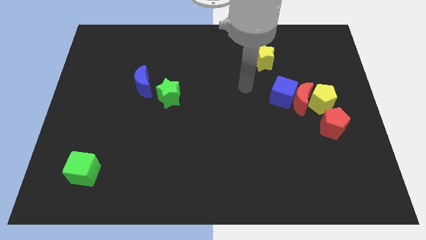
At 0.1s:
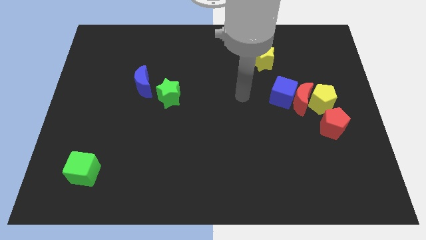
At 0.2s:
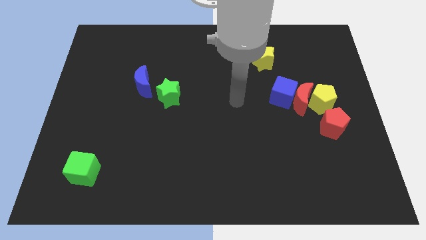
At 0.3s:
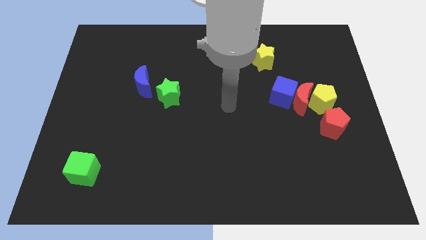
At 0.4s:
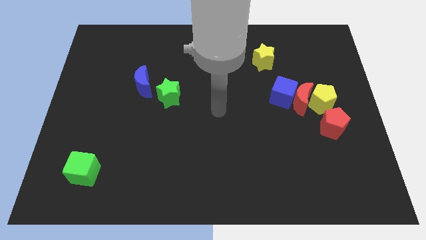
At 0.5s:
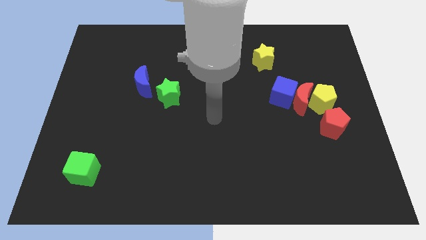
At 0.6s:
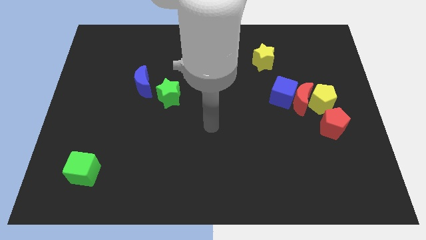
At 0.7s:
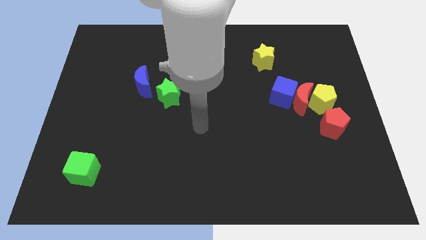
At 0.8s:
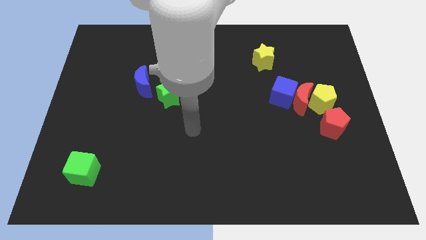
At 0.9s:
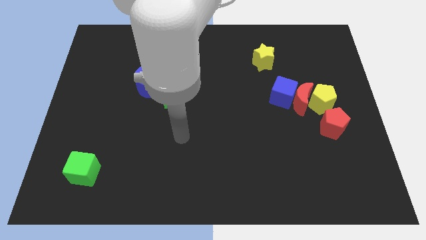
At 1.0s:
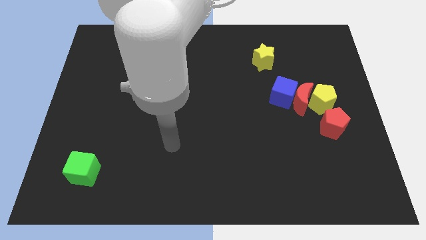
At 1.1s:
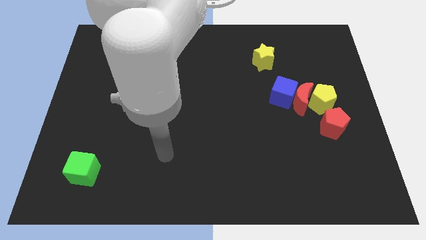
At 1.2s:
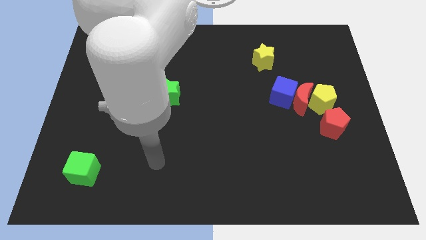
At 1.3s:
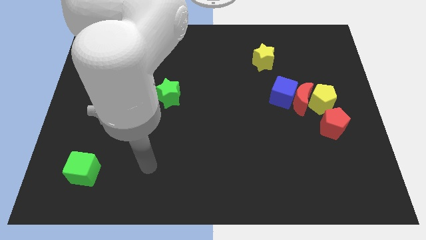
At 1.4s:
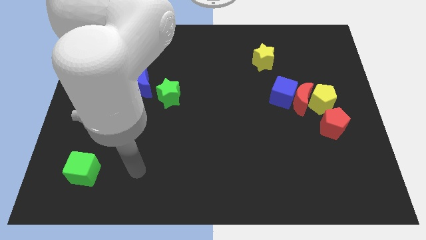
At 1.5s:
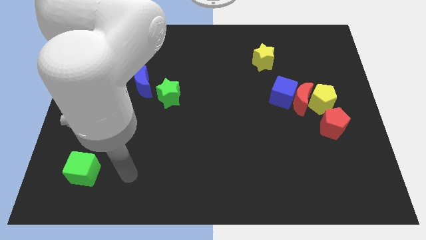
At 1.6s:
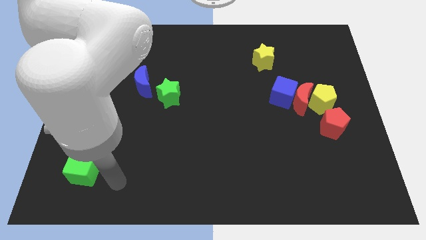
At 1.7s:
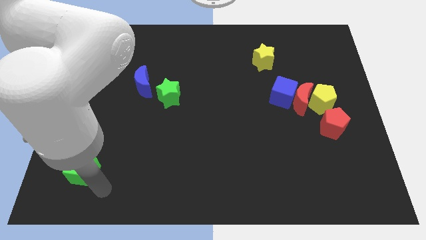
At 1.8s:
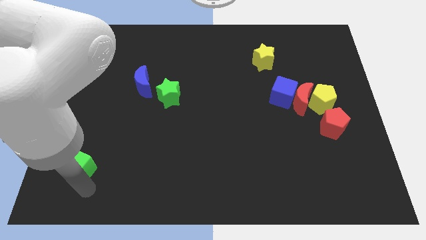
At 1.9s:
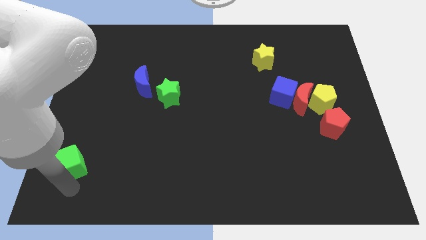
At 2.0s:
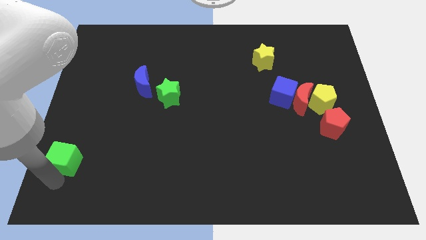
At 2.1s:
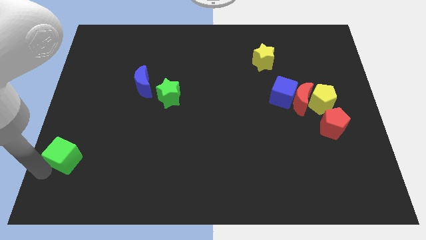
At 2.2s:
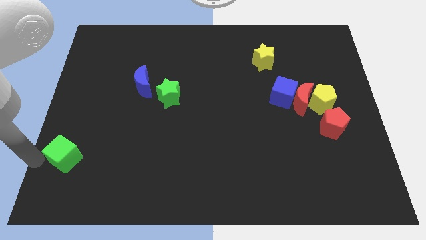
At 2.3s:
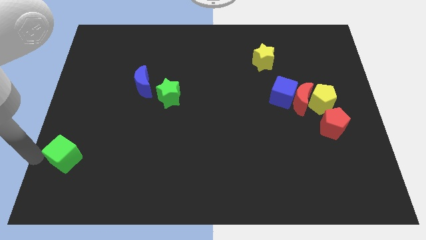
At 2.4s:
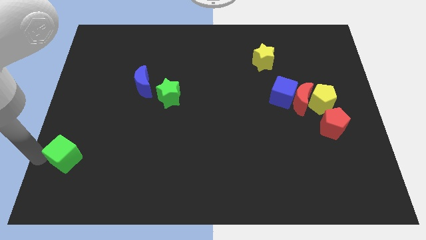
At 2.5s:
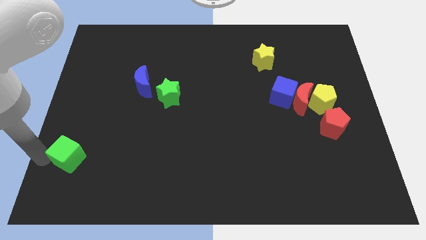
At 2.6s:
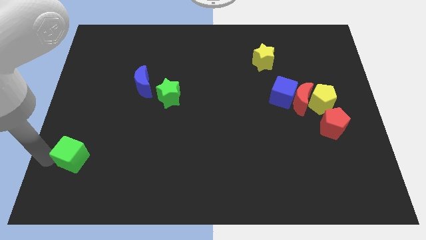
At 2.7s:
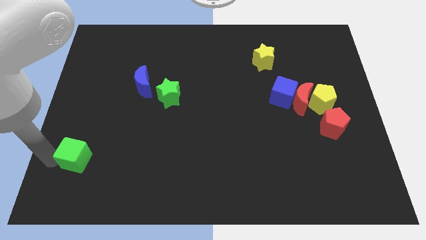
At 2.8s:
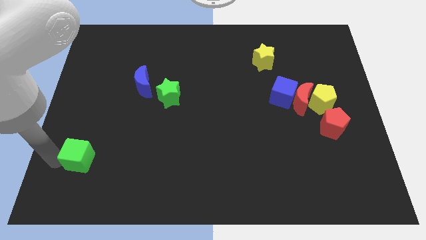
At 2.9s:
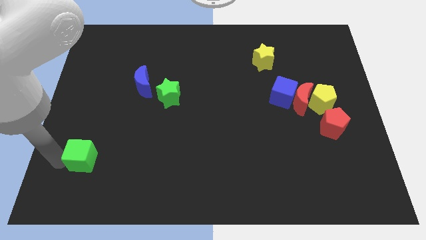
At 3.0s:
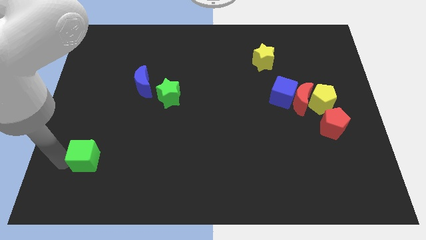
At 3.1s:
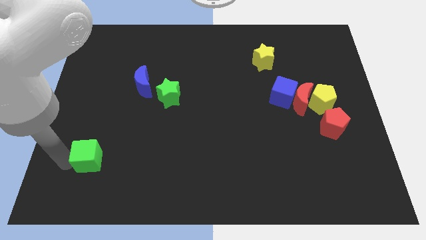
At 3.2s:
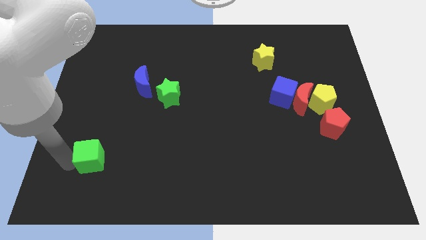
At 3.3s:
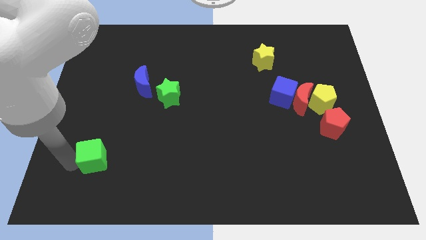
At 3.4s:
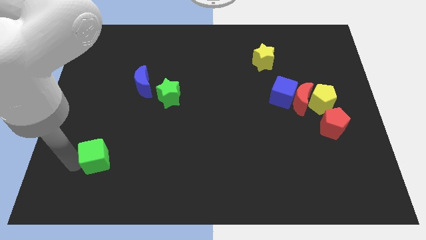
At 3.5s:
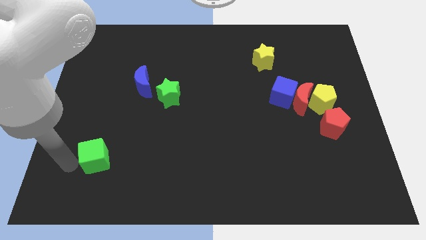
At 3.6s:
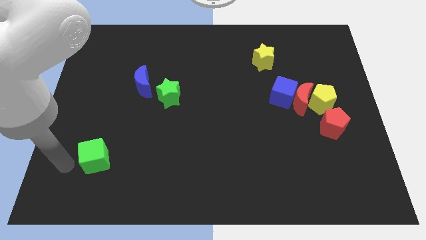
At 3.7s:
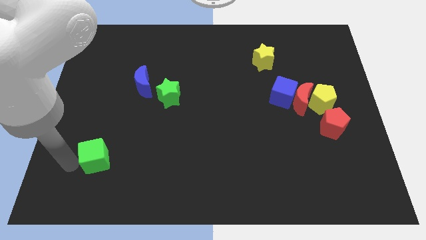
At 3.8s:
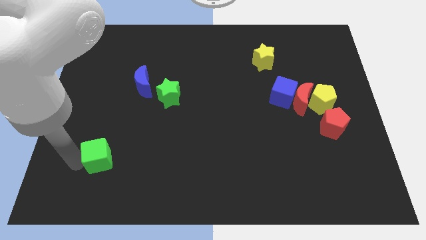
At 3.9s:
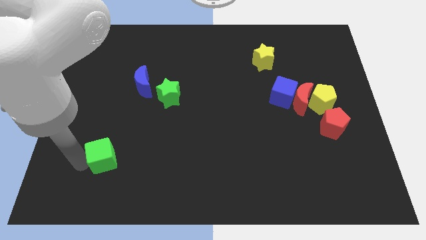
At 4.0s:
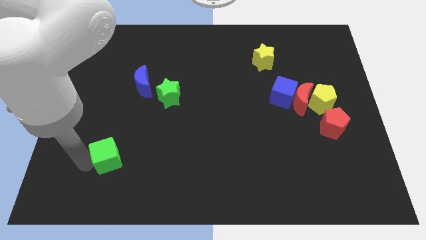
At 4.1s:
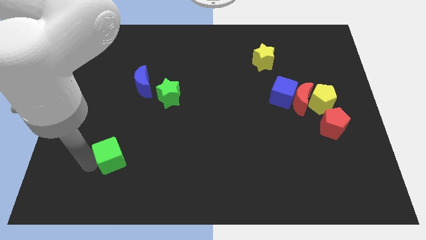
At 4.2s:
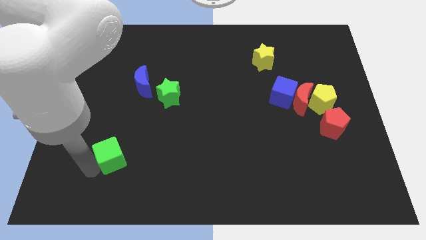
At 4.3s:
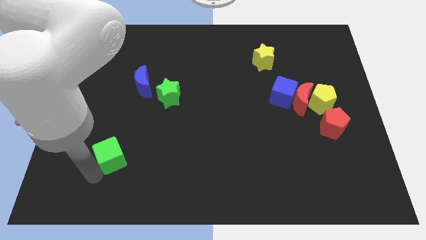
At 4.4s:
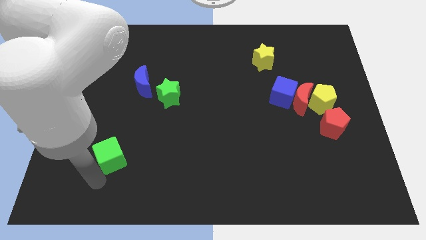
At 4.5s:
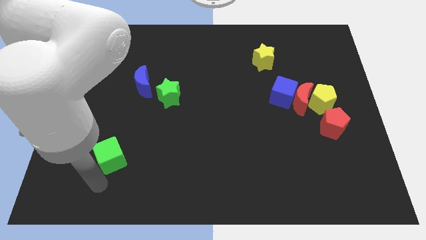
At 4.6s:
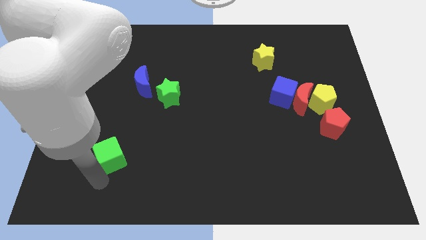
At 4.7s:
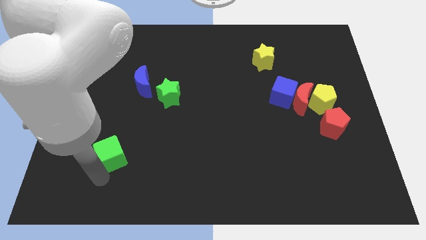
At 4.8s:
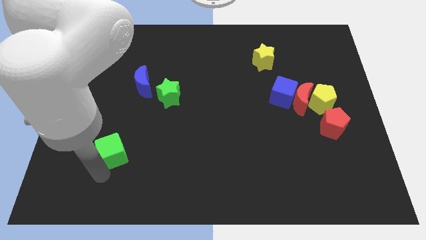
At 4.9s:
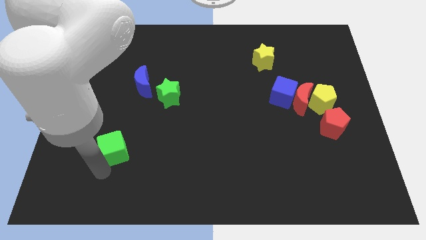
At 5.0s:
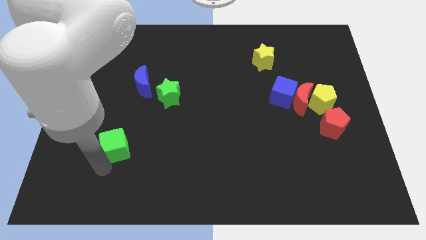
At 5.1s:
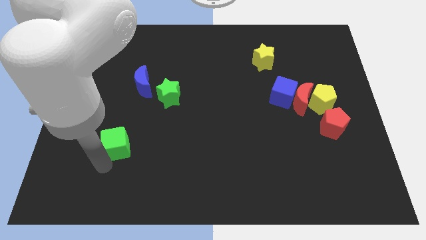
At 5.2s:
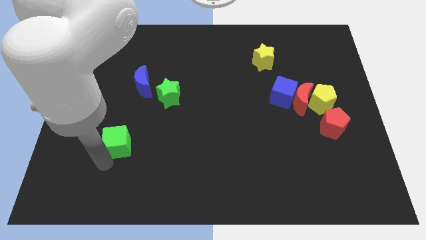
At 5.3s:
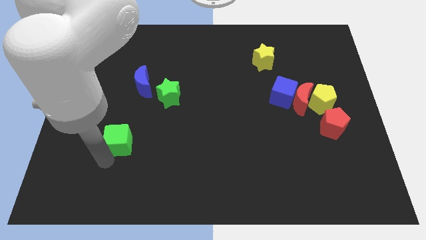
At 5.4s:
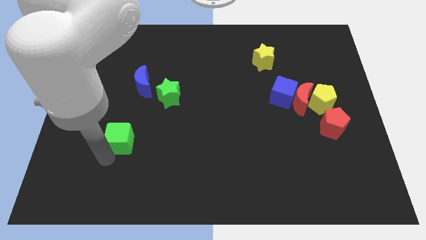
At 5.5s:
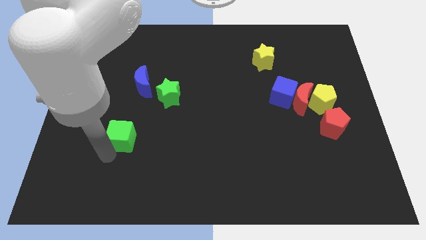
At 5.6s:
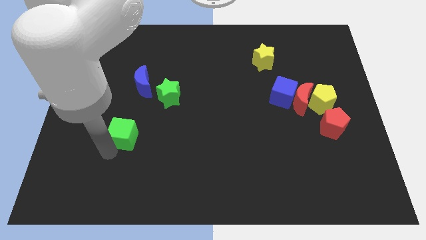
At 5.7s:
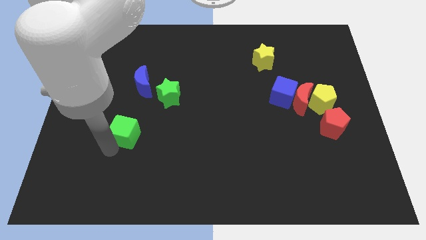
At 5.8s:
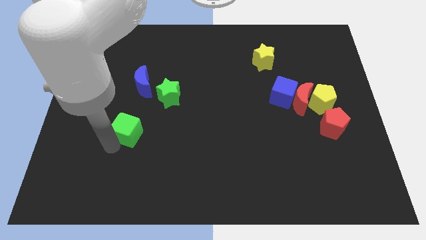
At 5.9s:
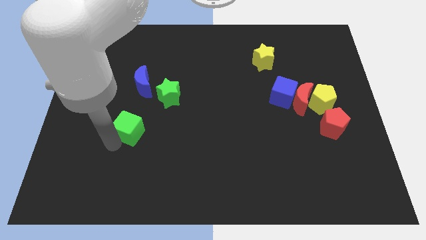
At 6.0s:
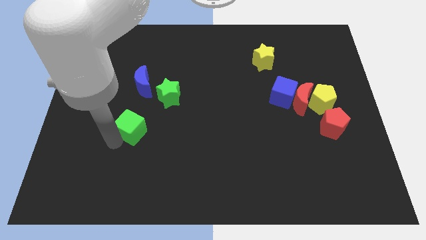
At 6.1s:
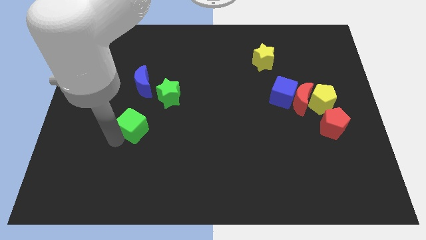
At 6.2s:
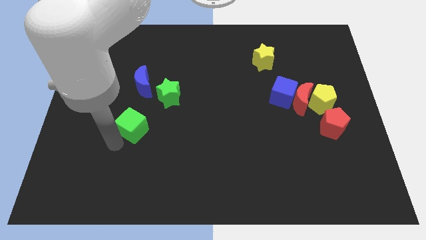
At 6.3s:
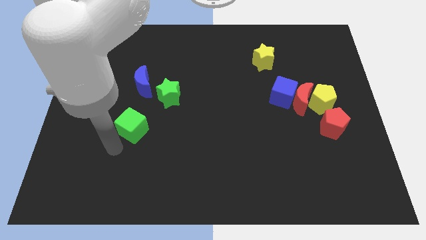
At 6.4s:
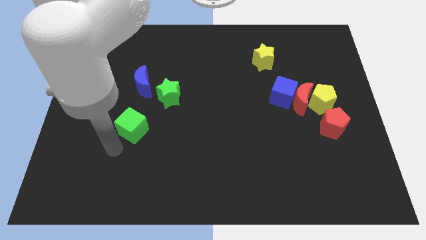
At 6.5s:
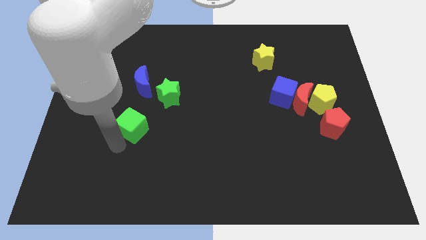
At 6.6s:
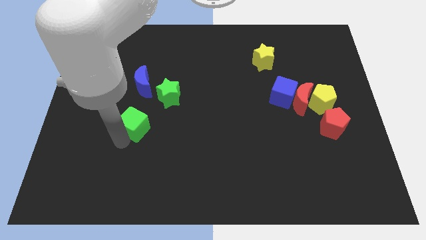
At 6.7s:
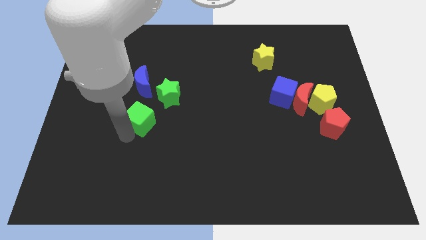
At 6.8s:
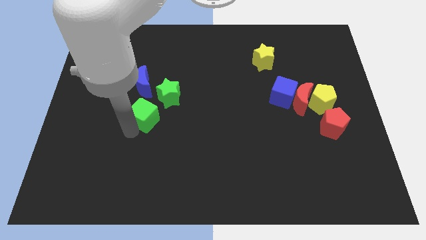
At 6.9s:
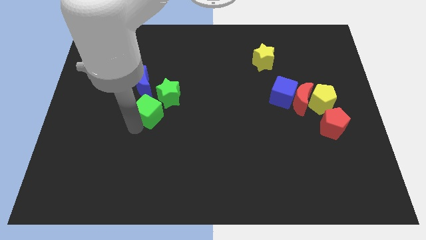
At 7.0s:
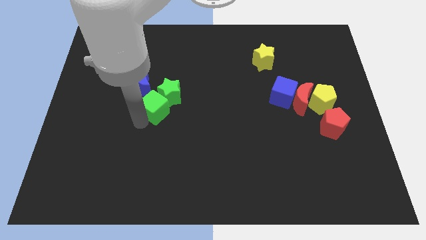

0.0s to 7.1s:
move the green cube close to the green star
